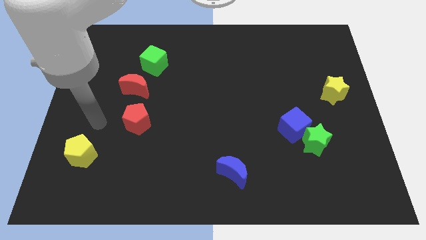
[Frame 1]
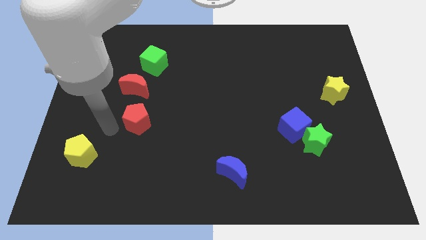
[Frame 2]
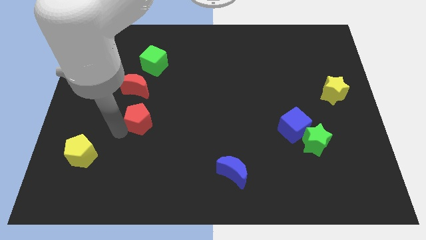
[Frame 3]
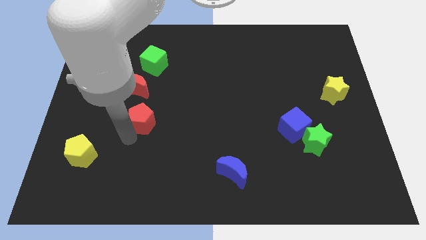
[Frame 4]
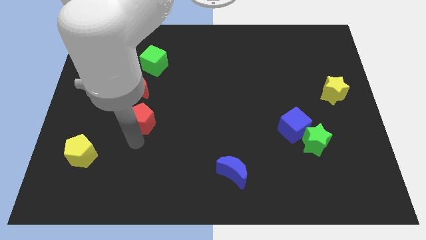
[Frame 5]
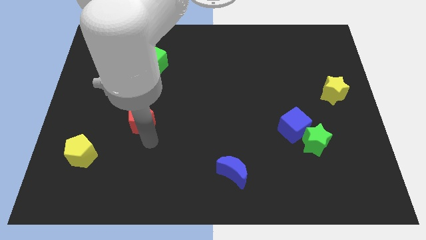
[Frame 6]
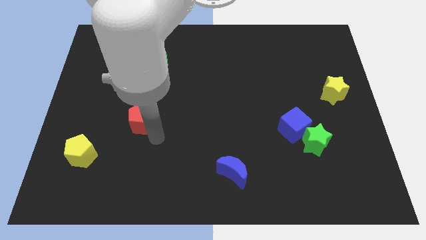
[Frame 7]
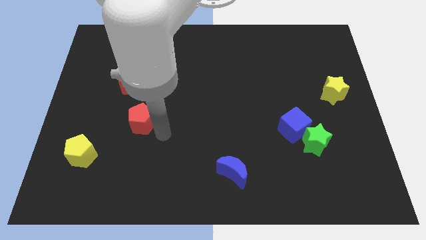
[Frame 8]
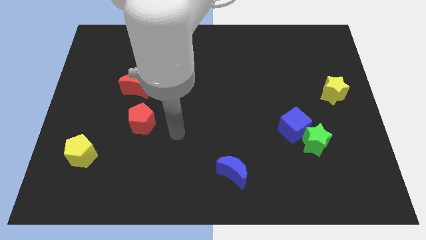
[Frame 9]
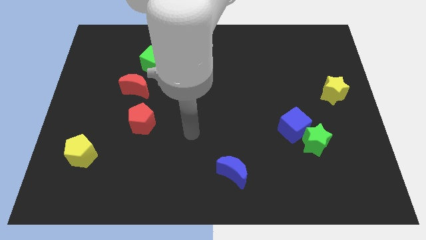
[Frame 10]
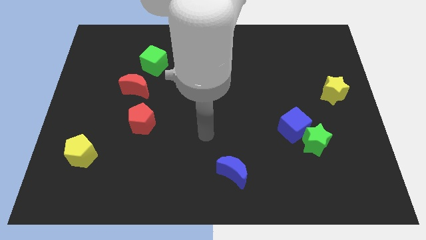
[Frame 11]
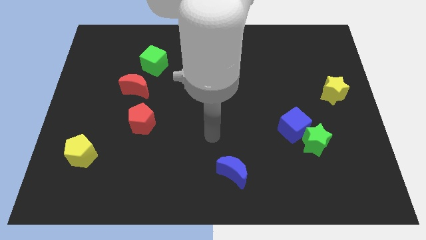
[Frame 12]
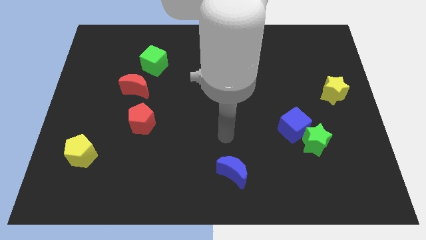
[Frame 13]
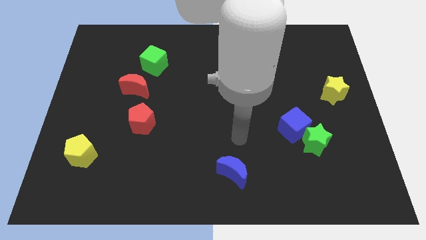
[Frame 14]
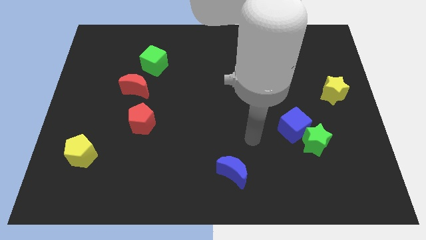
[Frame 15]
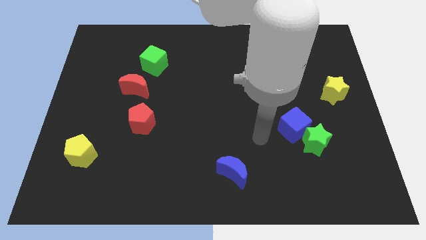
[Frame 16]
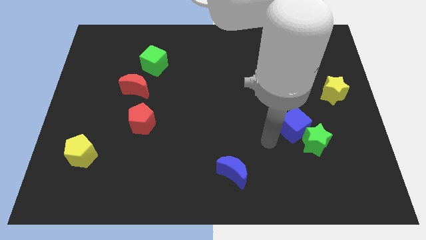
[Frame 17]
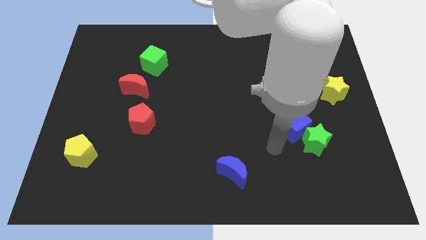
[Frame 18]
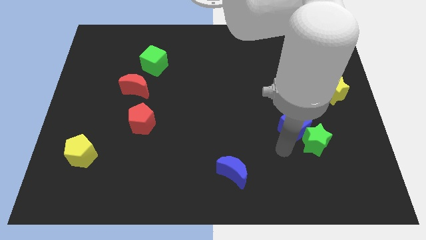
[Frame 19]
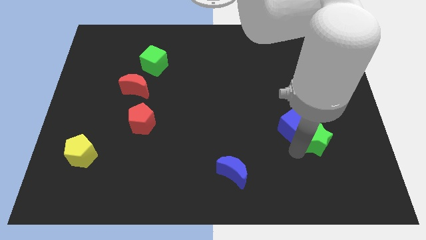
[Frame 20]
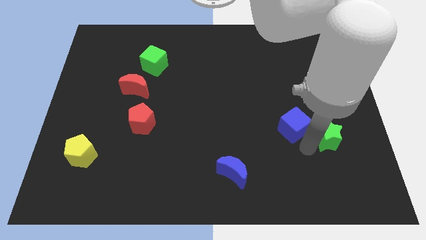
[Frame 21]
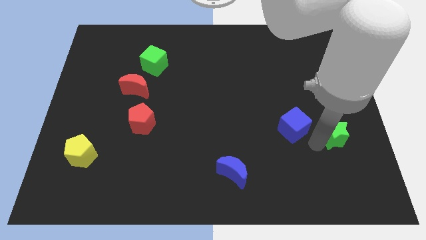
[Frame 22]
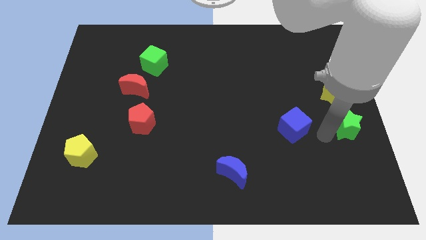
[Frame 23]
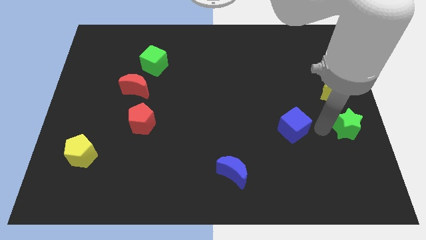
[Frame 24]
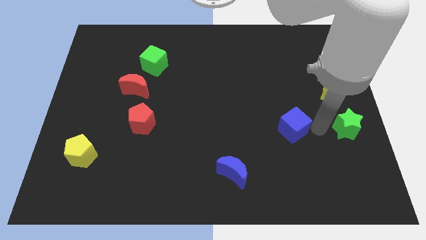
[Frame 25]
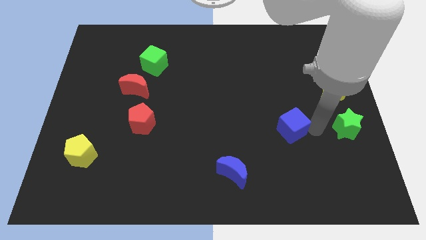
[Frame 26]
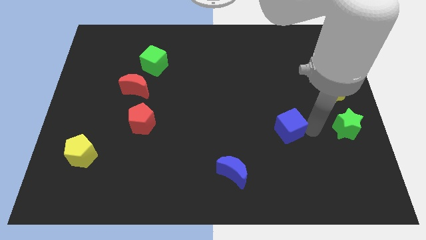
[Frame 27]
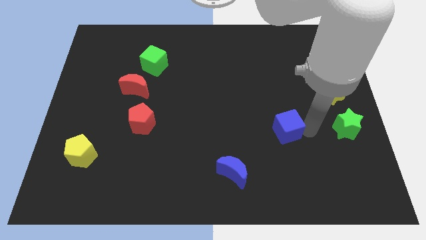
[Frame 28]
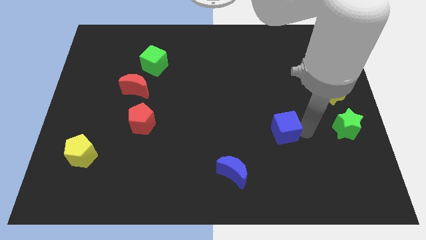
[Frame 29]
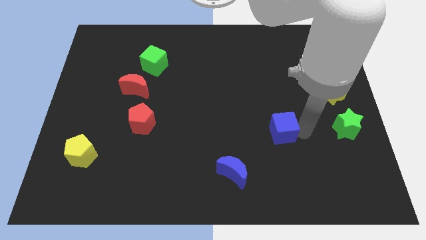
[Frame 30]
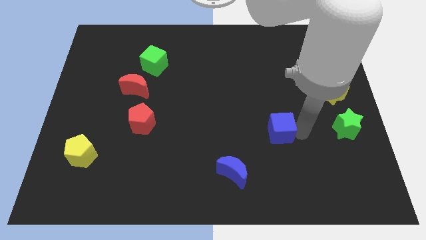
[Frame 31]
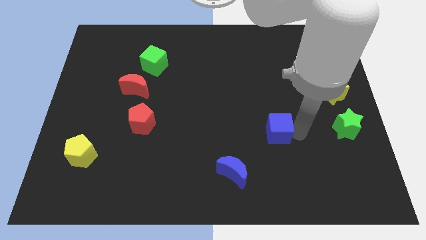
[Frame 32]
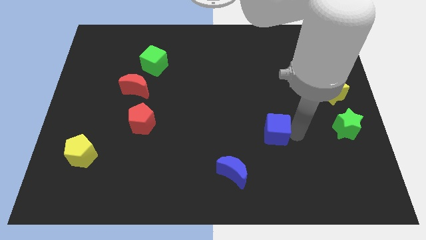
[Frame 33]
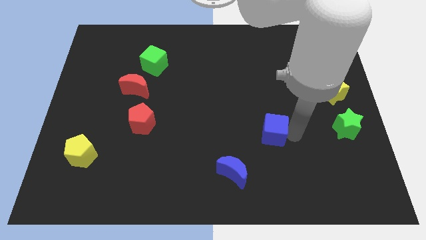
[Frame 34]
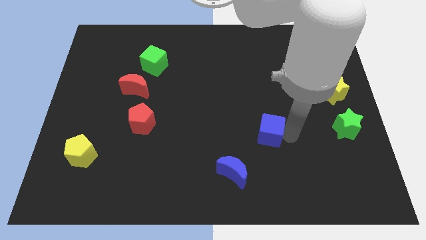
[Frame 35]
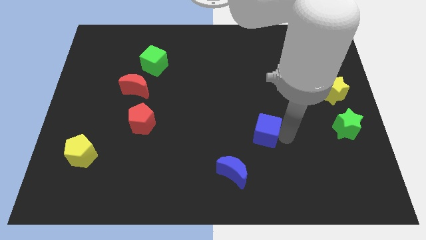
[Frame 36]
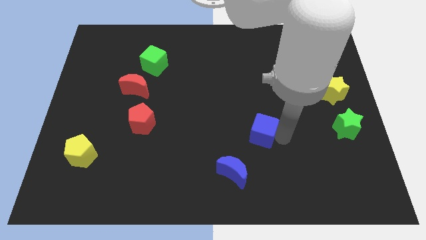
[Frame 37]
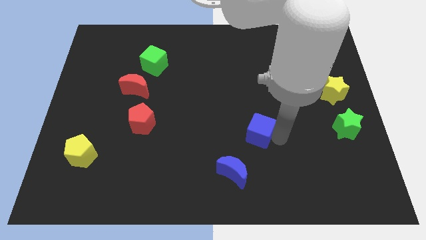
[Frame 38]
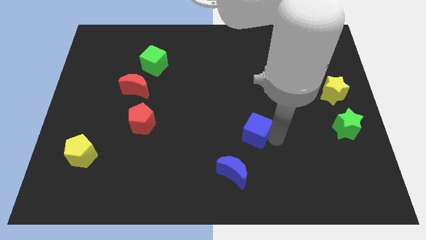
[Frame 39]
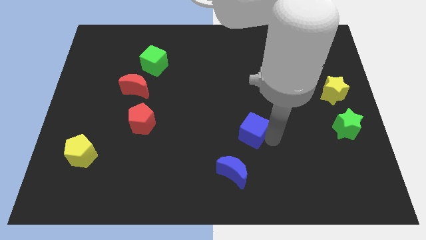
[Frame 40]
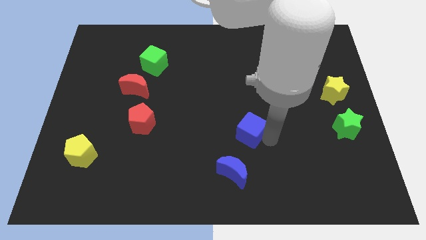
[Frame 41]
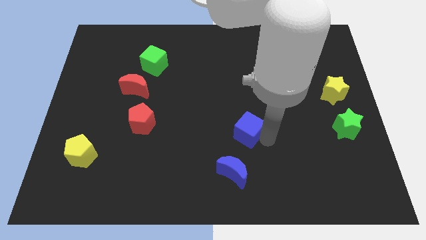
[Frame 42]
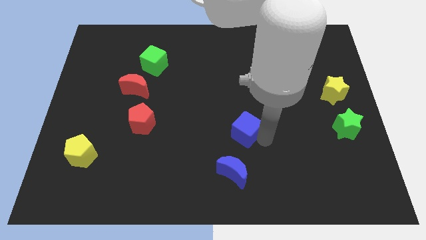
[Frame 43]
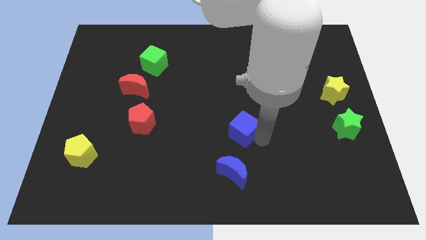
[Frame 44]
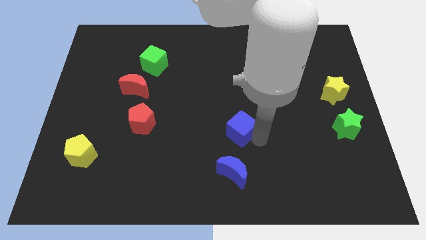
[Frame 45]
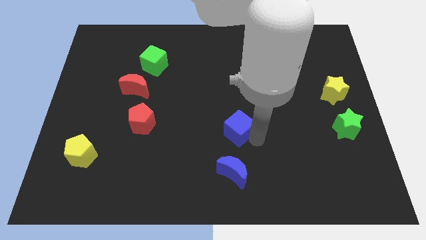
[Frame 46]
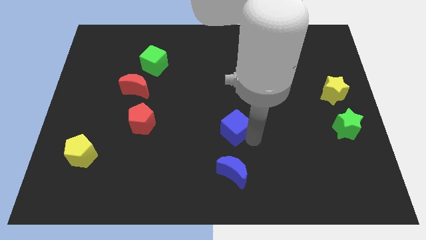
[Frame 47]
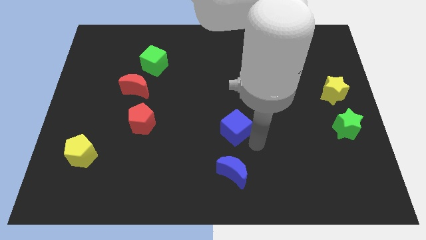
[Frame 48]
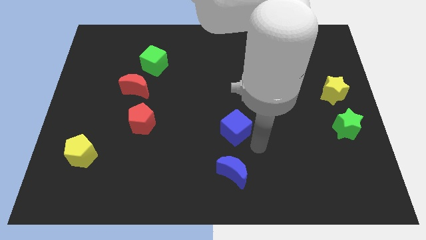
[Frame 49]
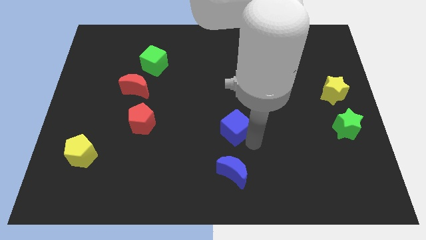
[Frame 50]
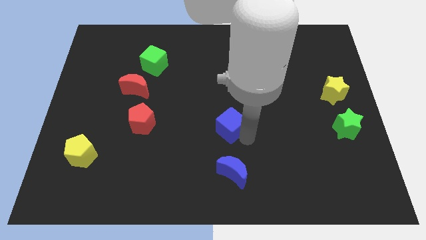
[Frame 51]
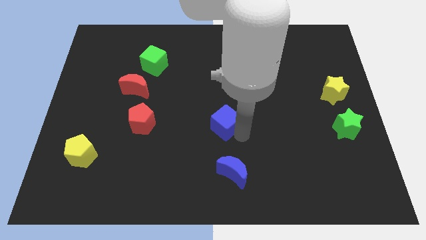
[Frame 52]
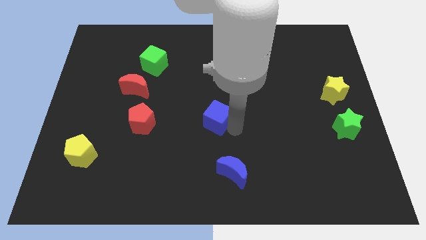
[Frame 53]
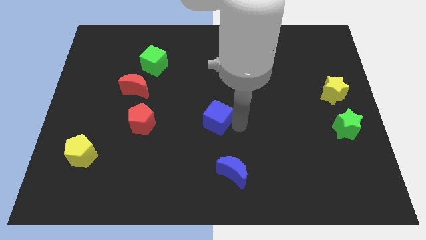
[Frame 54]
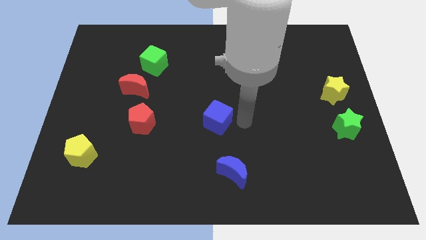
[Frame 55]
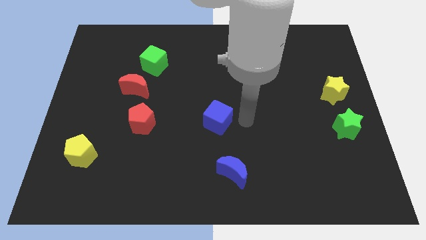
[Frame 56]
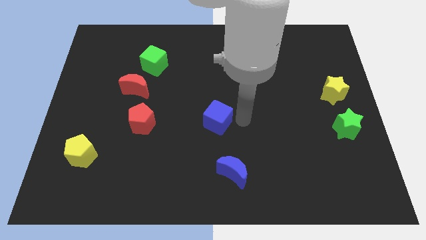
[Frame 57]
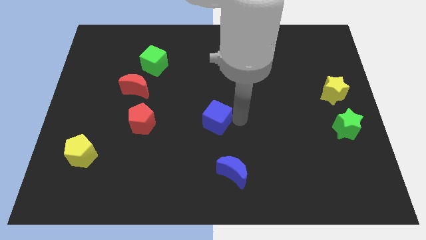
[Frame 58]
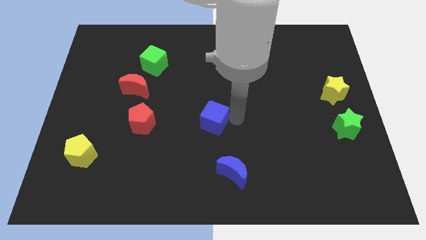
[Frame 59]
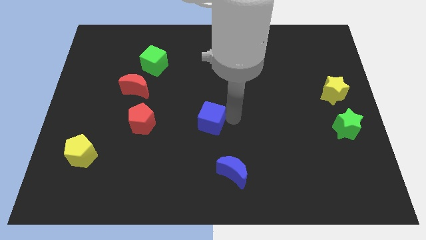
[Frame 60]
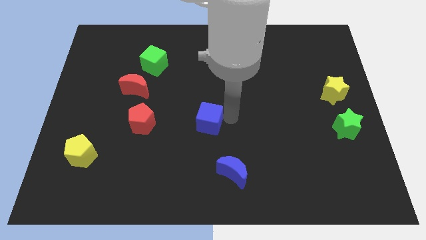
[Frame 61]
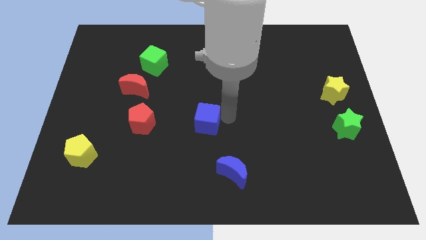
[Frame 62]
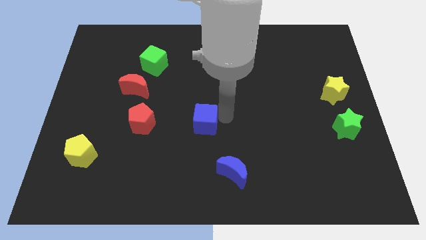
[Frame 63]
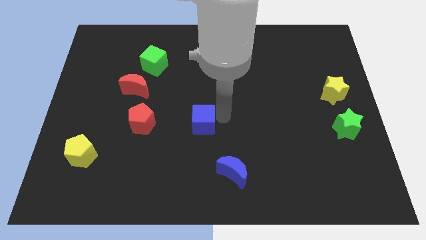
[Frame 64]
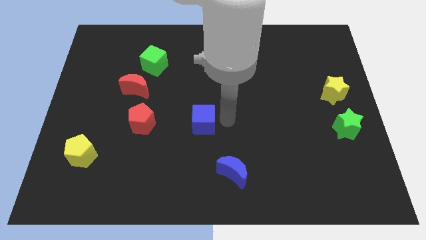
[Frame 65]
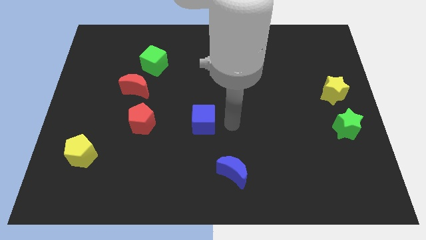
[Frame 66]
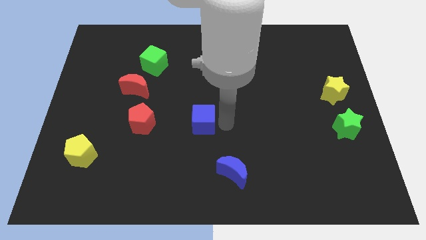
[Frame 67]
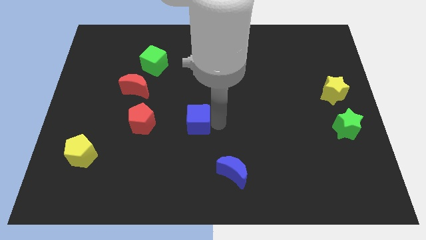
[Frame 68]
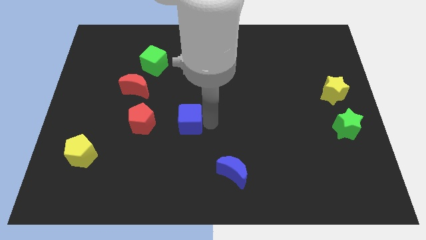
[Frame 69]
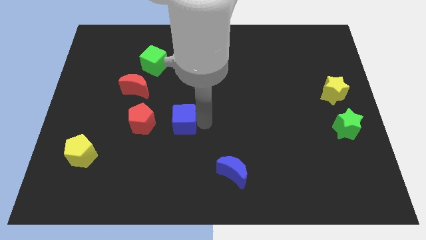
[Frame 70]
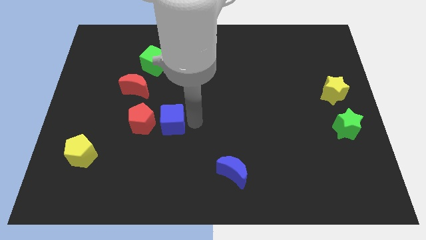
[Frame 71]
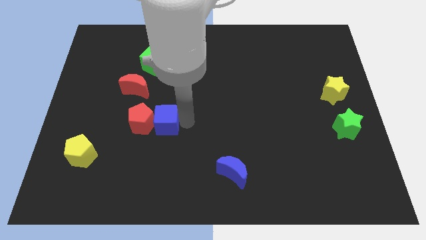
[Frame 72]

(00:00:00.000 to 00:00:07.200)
push the blue cube towards the red pentagon
